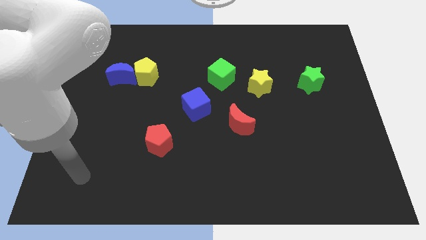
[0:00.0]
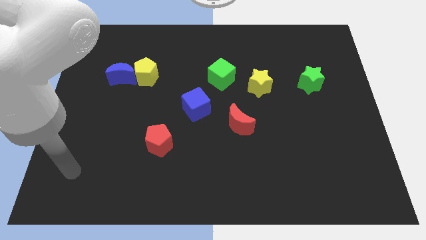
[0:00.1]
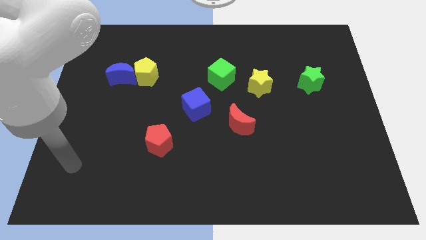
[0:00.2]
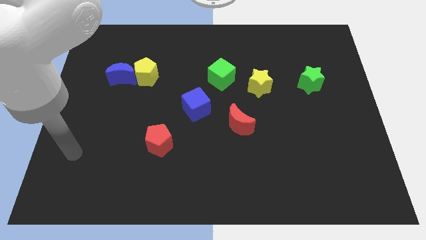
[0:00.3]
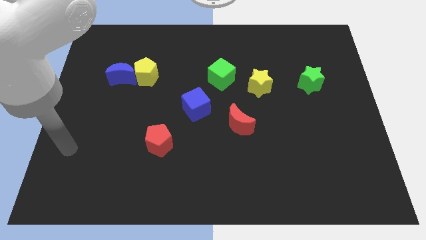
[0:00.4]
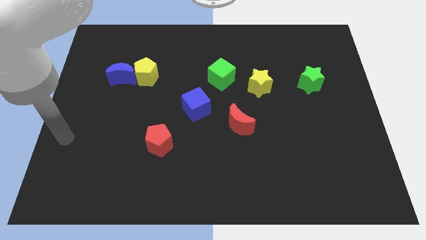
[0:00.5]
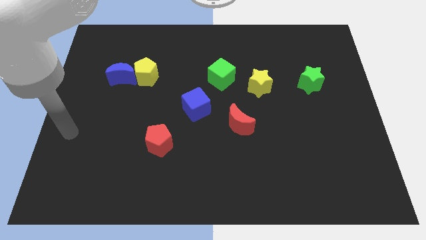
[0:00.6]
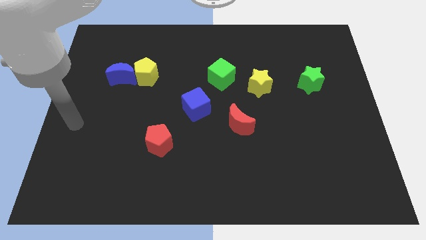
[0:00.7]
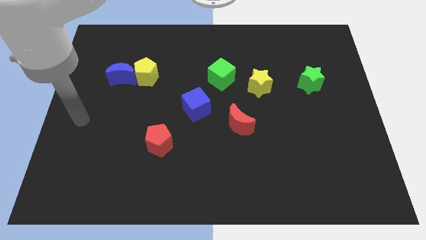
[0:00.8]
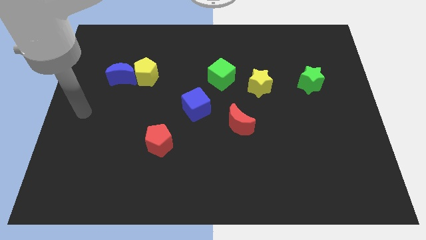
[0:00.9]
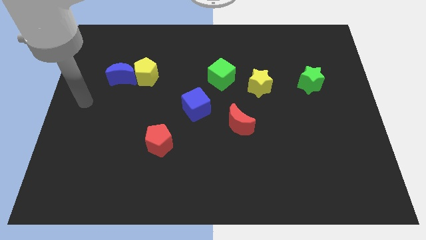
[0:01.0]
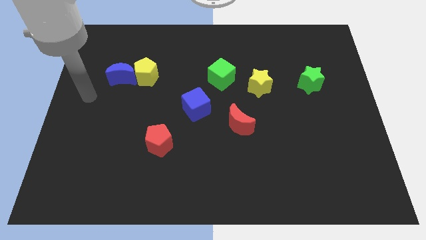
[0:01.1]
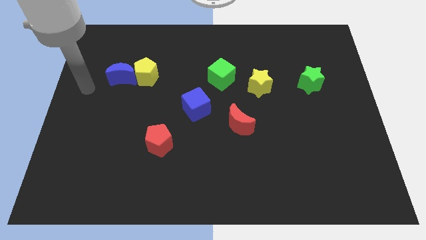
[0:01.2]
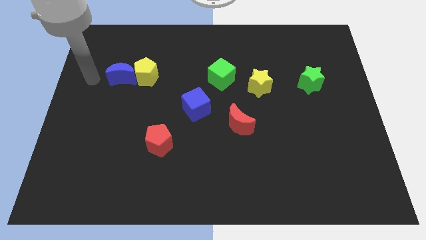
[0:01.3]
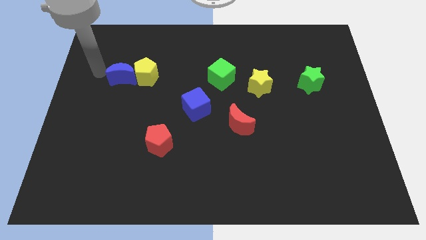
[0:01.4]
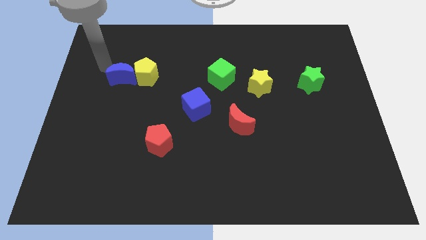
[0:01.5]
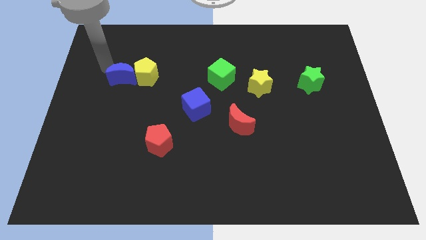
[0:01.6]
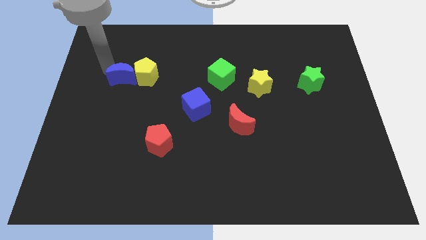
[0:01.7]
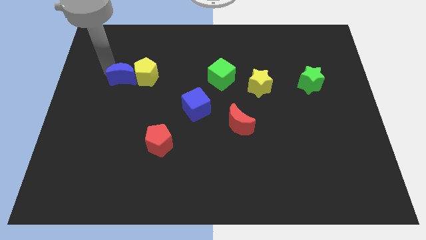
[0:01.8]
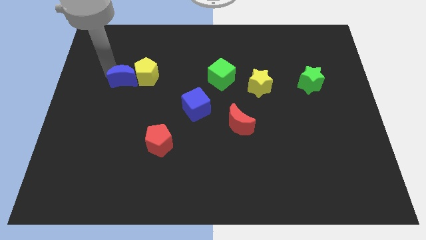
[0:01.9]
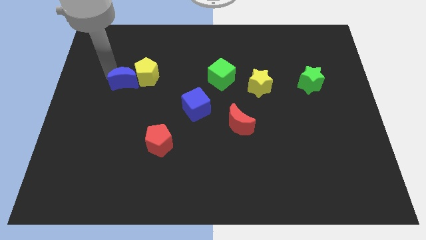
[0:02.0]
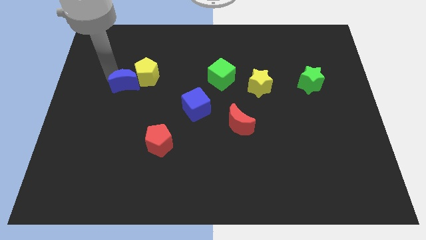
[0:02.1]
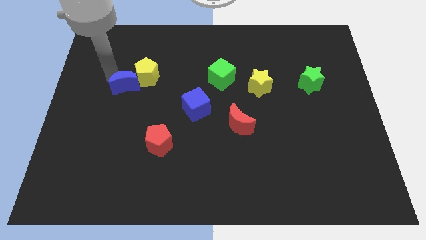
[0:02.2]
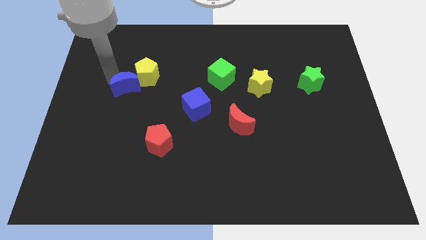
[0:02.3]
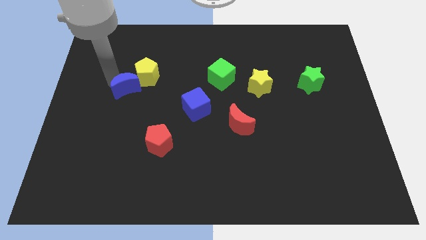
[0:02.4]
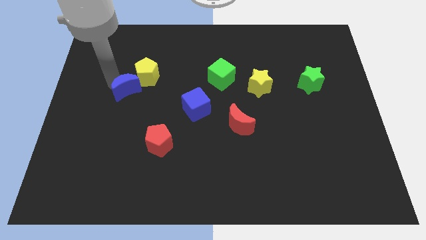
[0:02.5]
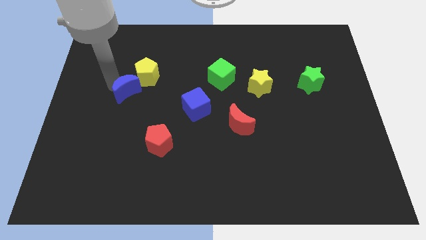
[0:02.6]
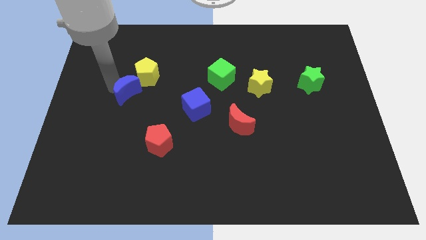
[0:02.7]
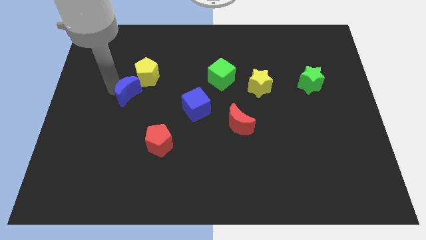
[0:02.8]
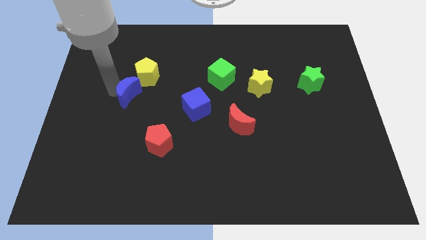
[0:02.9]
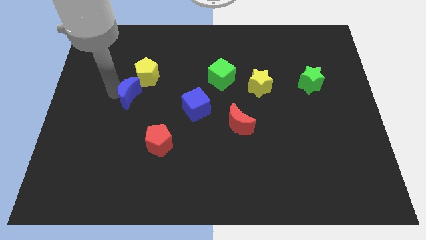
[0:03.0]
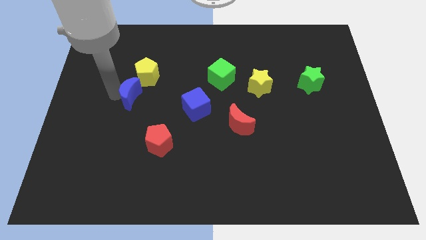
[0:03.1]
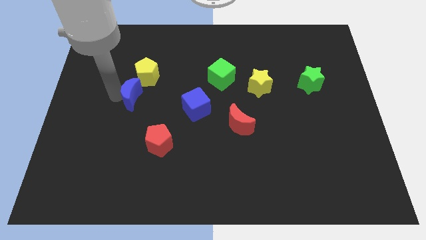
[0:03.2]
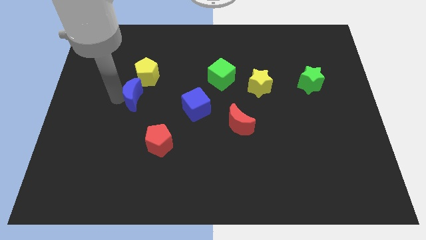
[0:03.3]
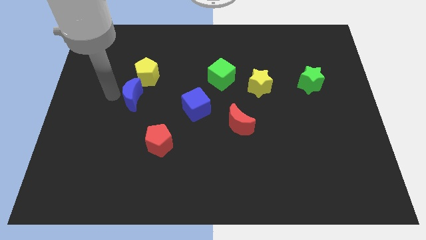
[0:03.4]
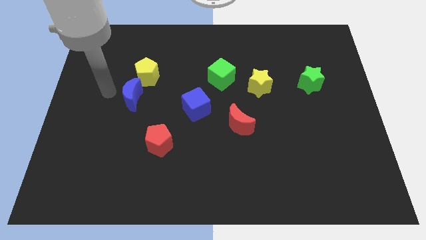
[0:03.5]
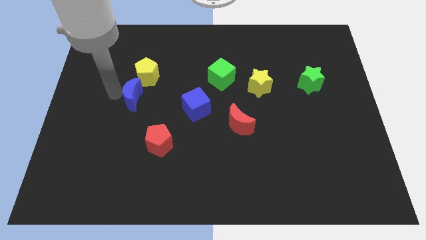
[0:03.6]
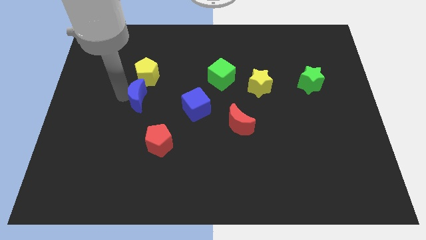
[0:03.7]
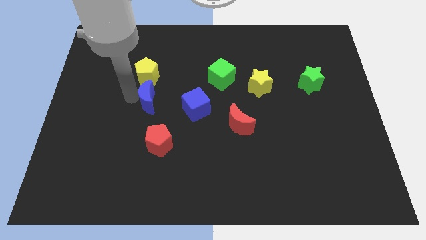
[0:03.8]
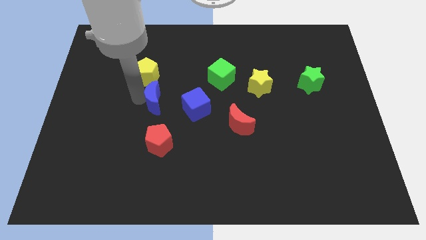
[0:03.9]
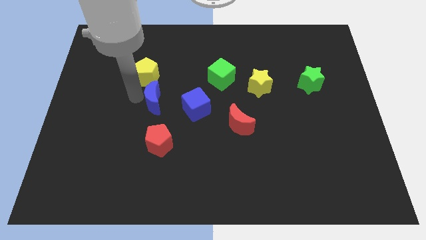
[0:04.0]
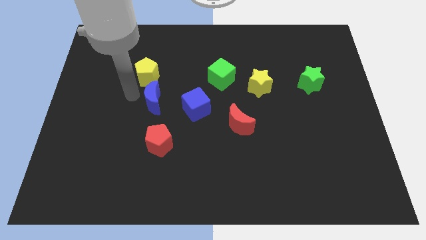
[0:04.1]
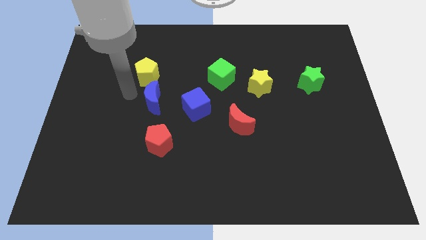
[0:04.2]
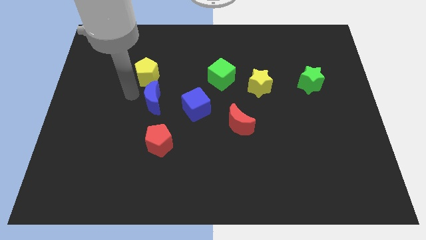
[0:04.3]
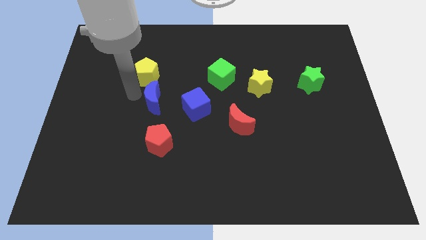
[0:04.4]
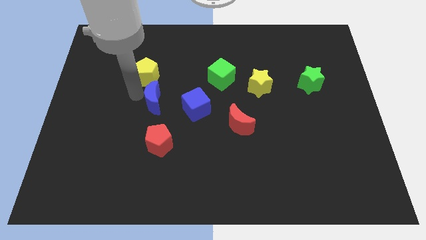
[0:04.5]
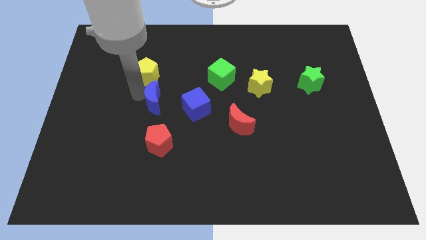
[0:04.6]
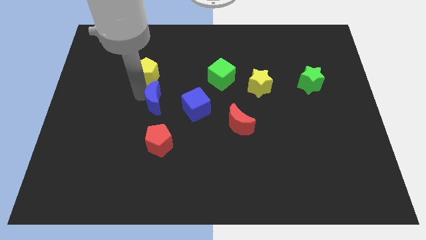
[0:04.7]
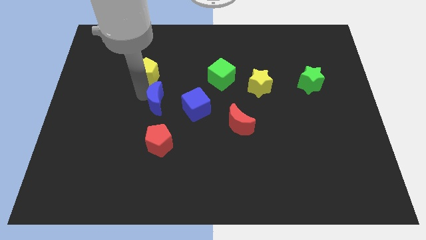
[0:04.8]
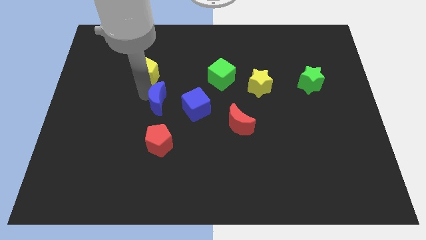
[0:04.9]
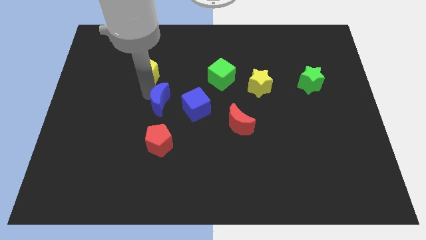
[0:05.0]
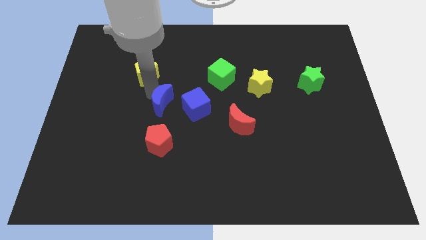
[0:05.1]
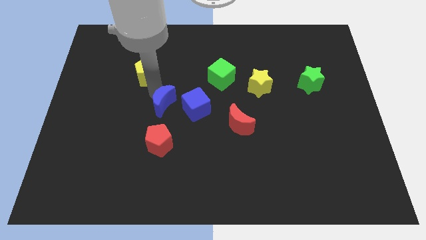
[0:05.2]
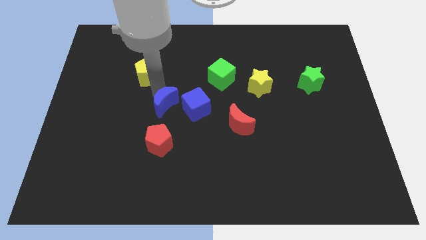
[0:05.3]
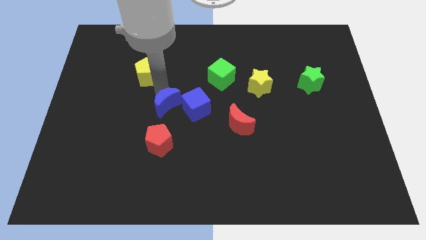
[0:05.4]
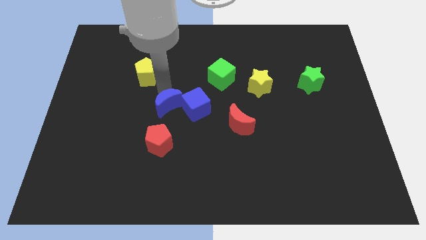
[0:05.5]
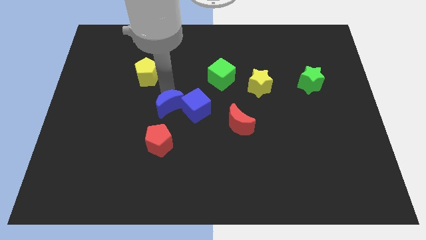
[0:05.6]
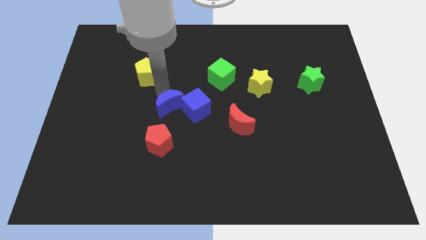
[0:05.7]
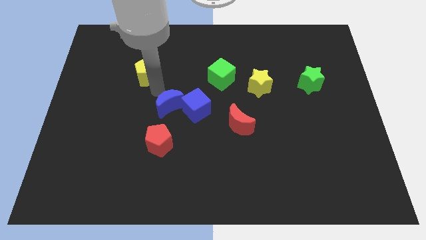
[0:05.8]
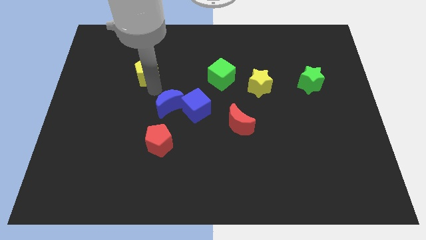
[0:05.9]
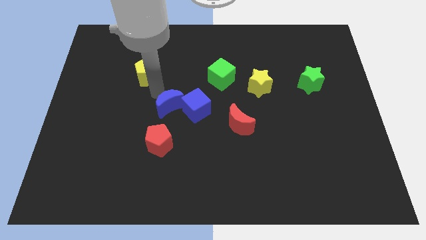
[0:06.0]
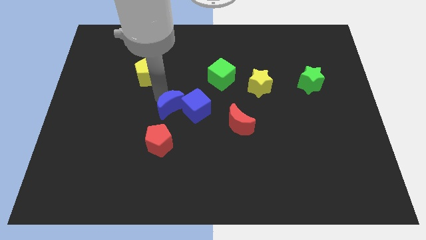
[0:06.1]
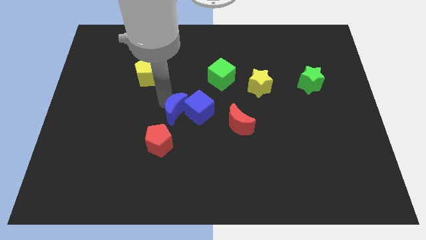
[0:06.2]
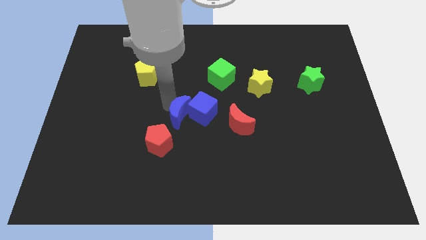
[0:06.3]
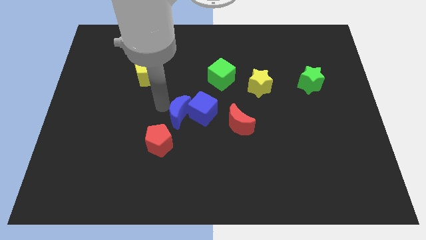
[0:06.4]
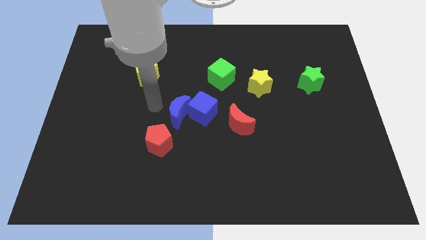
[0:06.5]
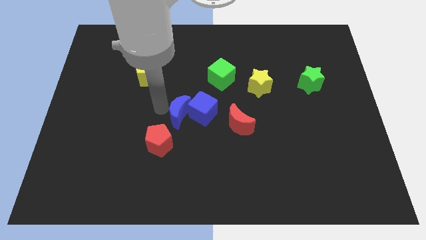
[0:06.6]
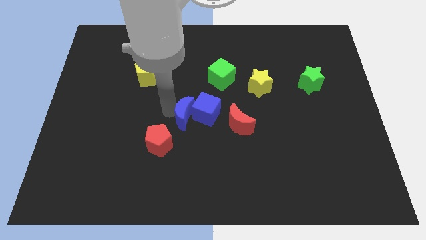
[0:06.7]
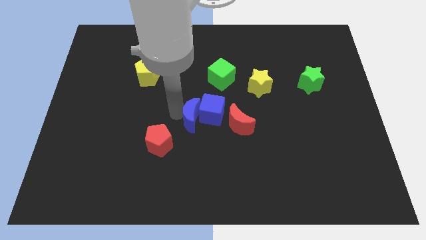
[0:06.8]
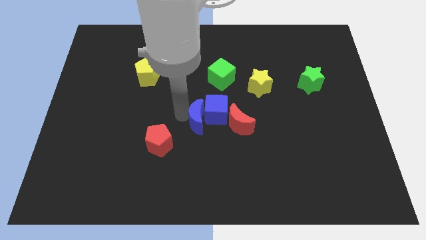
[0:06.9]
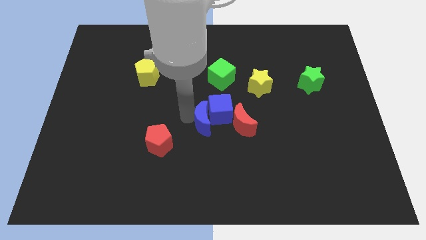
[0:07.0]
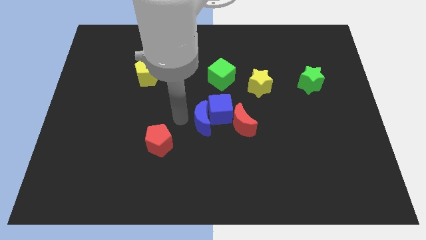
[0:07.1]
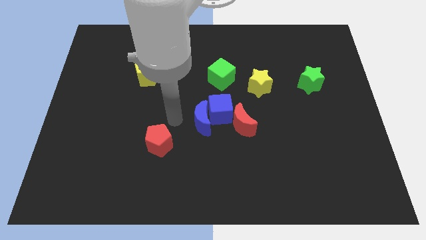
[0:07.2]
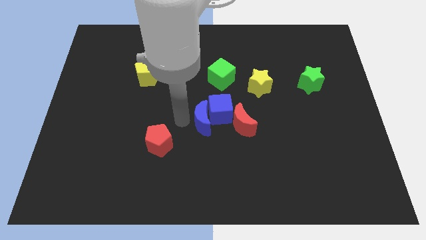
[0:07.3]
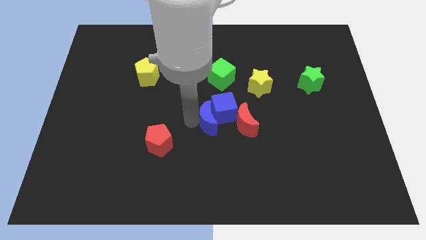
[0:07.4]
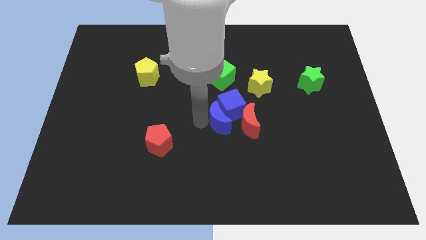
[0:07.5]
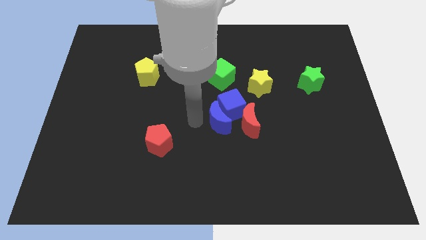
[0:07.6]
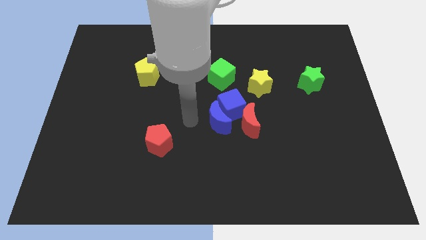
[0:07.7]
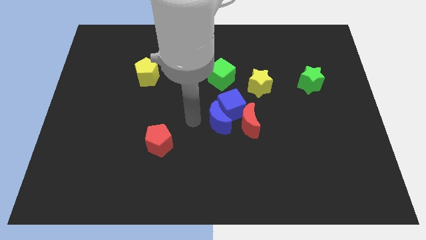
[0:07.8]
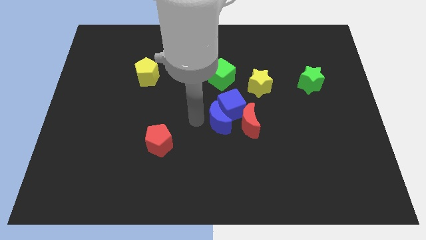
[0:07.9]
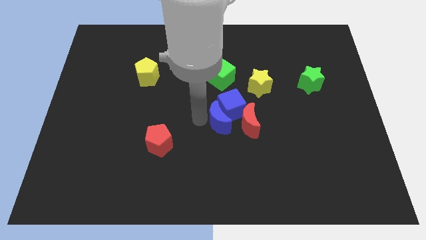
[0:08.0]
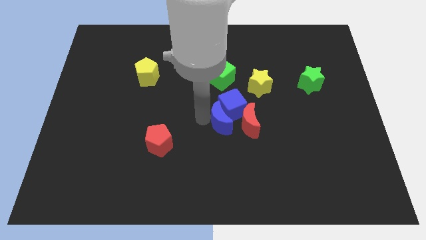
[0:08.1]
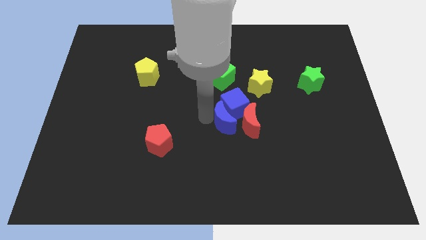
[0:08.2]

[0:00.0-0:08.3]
slide the blue moon close to the red moon
